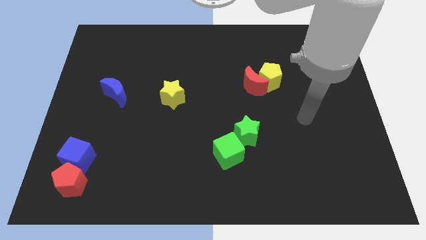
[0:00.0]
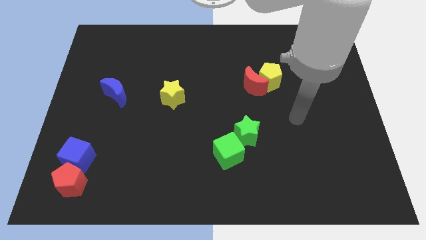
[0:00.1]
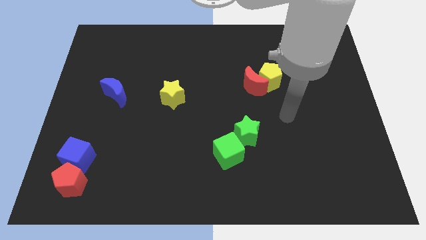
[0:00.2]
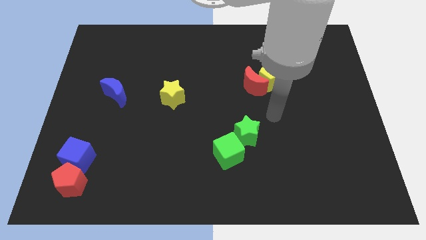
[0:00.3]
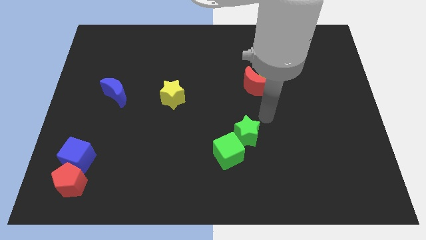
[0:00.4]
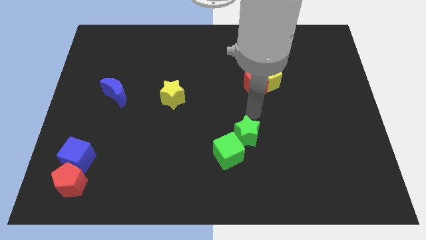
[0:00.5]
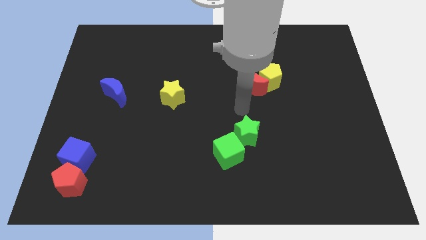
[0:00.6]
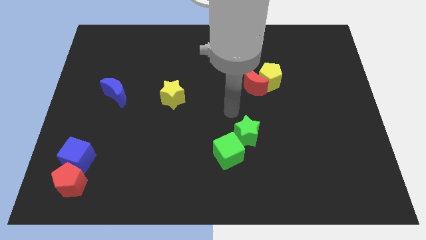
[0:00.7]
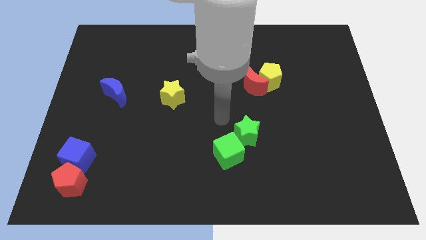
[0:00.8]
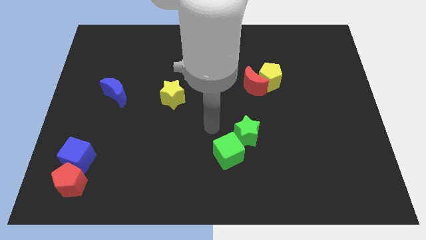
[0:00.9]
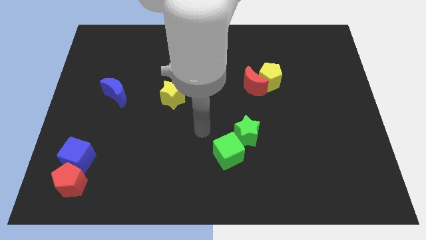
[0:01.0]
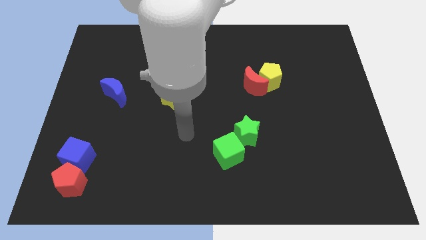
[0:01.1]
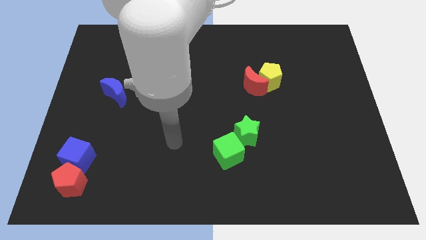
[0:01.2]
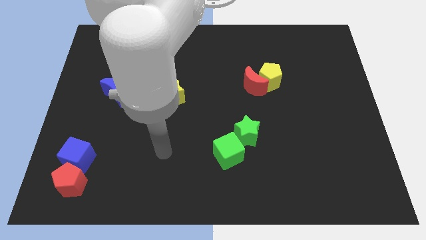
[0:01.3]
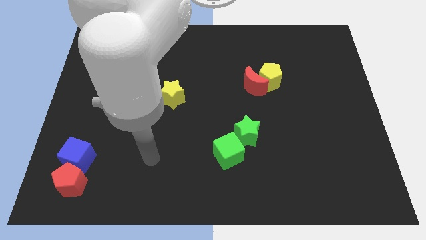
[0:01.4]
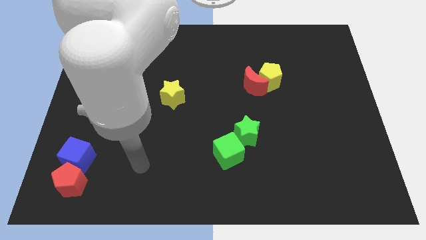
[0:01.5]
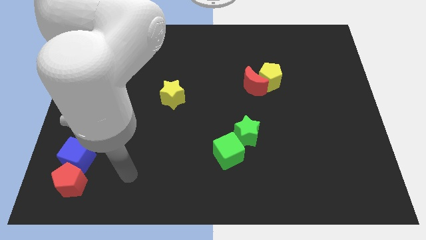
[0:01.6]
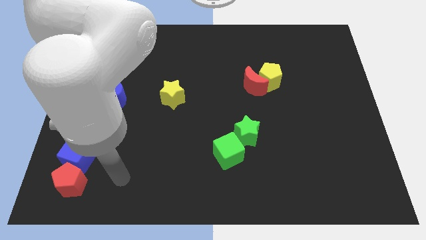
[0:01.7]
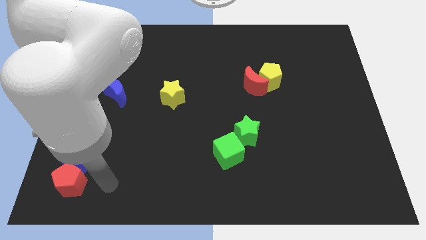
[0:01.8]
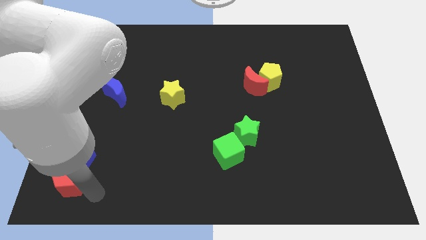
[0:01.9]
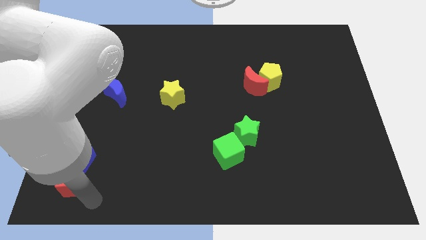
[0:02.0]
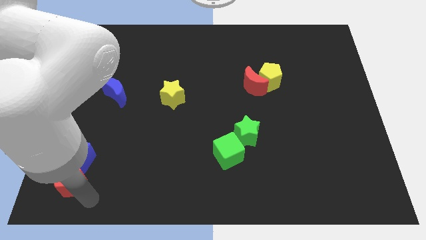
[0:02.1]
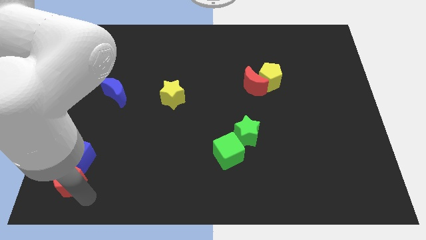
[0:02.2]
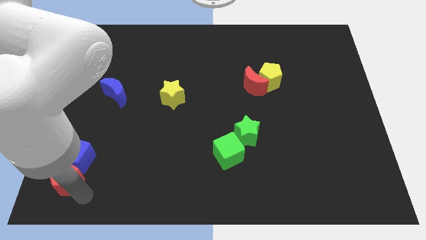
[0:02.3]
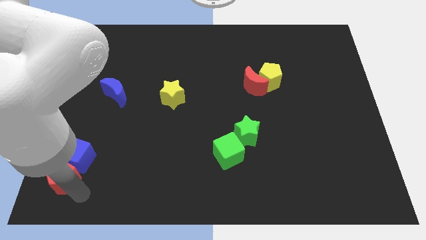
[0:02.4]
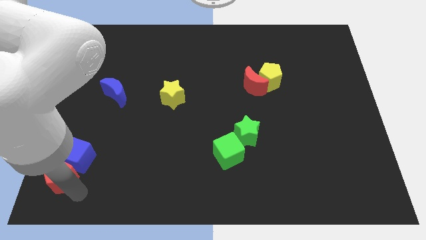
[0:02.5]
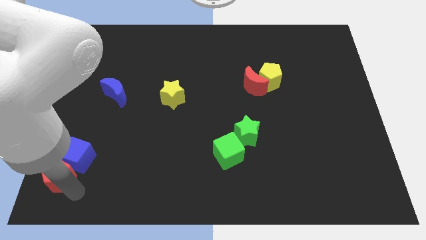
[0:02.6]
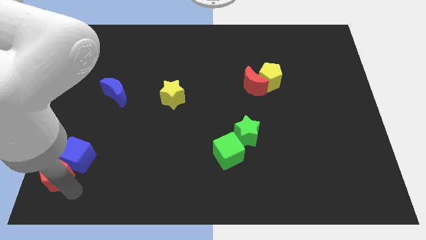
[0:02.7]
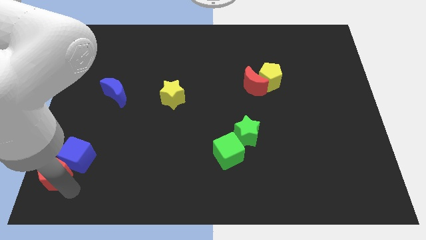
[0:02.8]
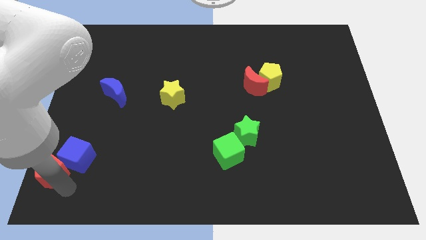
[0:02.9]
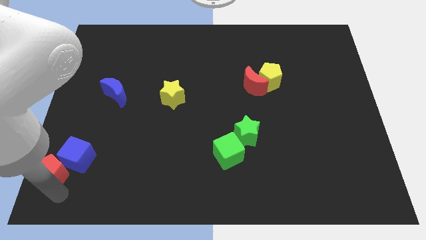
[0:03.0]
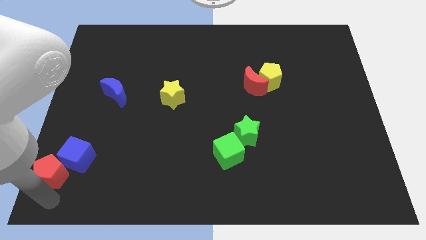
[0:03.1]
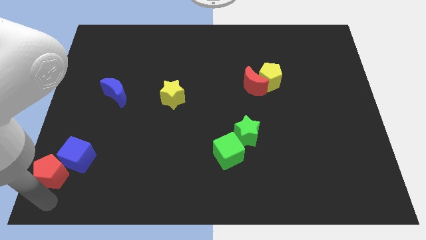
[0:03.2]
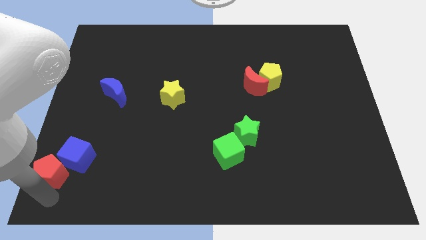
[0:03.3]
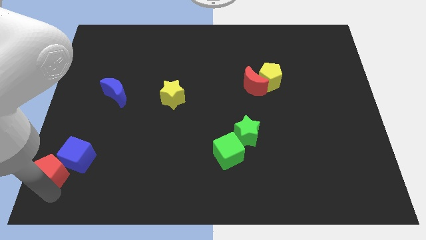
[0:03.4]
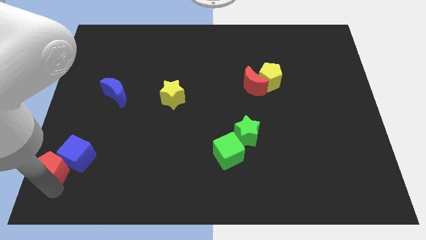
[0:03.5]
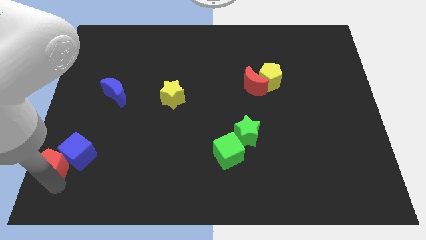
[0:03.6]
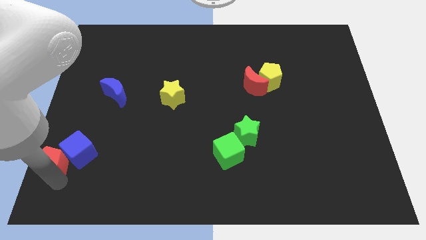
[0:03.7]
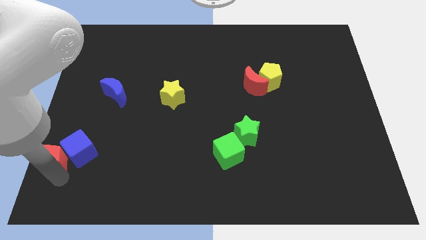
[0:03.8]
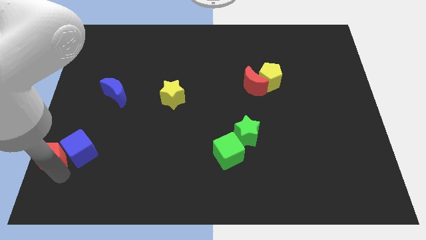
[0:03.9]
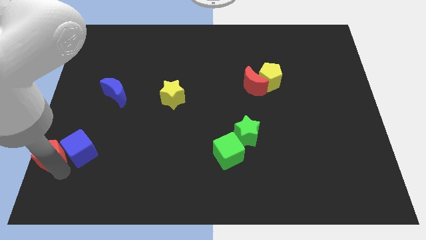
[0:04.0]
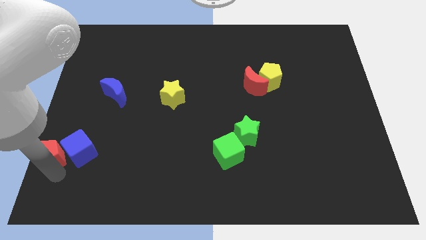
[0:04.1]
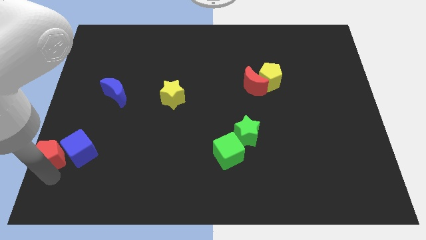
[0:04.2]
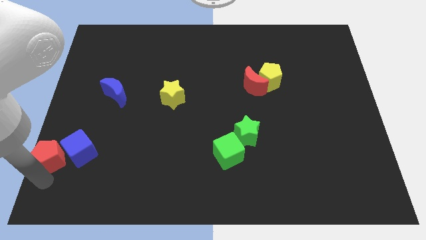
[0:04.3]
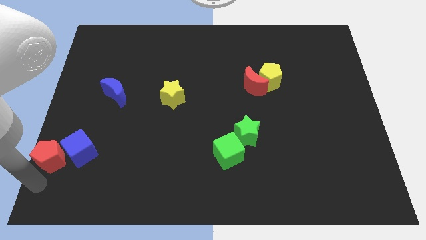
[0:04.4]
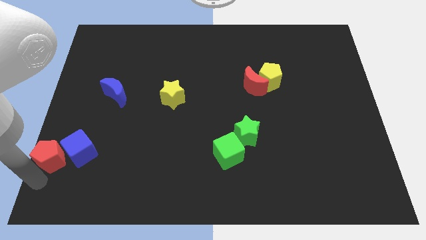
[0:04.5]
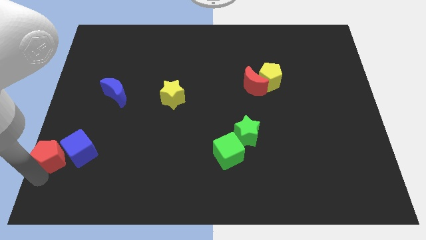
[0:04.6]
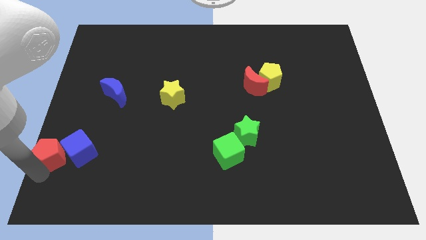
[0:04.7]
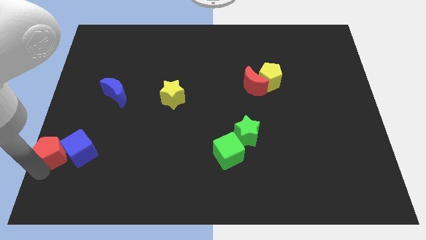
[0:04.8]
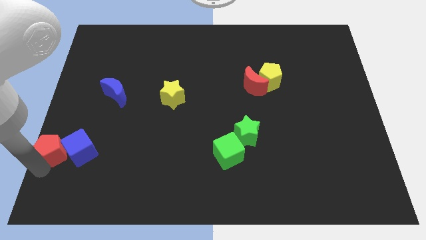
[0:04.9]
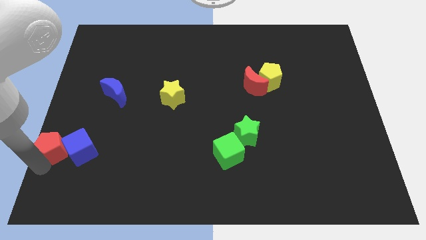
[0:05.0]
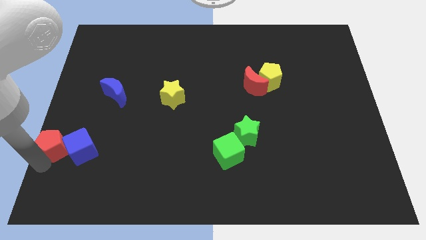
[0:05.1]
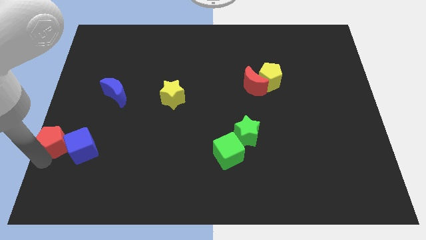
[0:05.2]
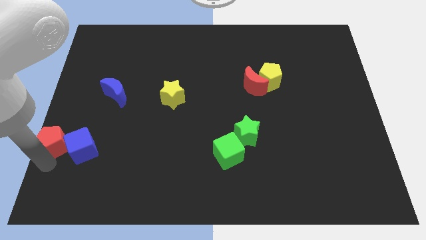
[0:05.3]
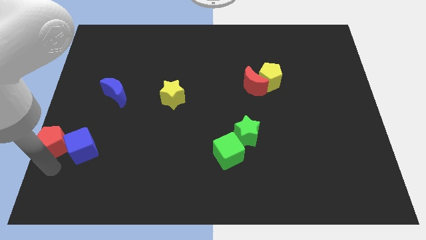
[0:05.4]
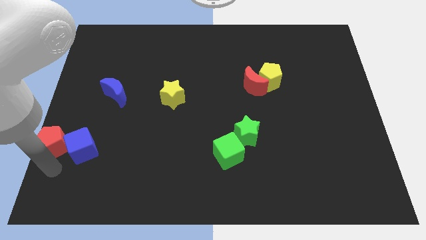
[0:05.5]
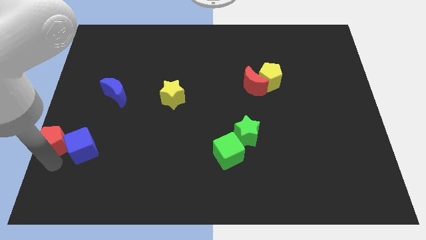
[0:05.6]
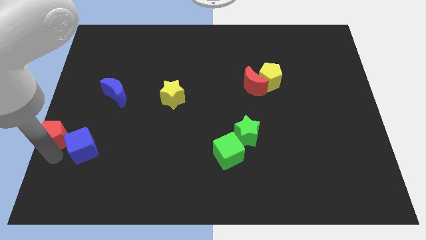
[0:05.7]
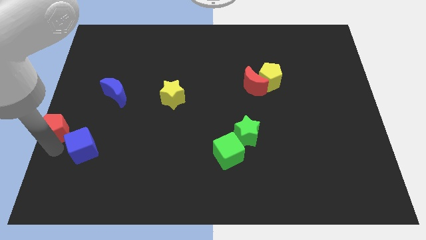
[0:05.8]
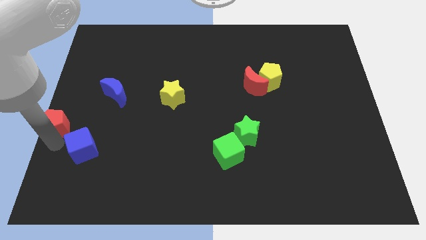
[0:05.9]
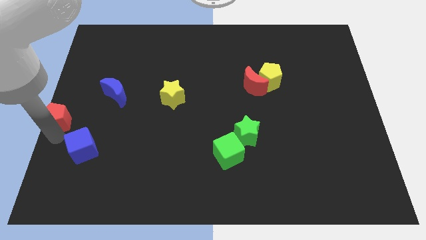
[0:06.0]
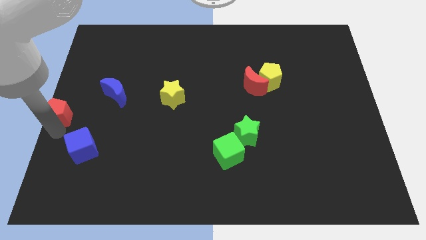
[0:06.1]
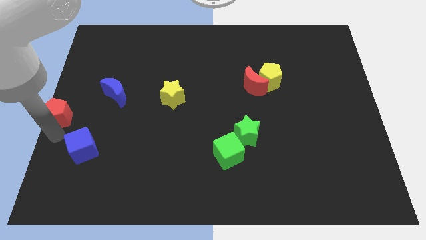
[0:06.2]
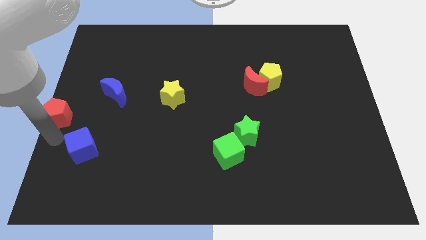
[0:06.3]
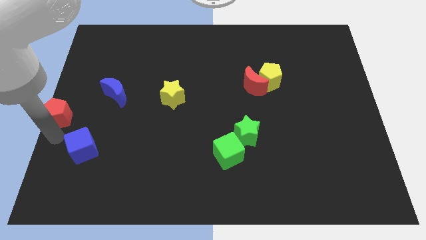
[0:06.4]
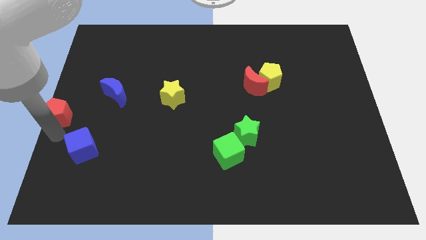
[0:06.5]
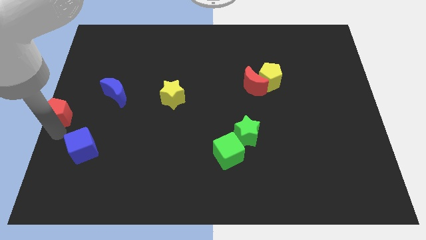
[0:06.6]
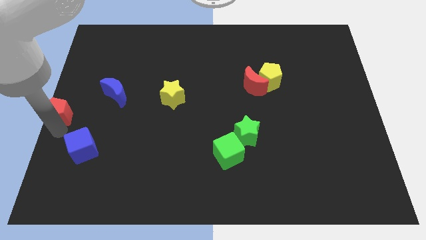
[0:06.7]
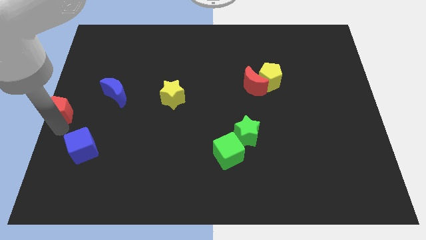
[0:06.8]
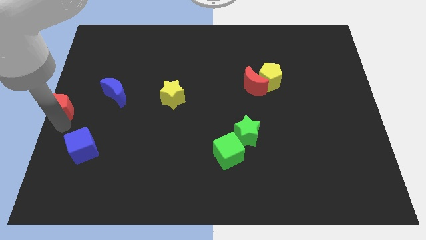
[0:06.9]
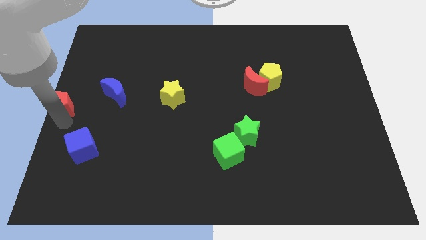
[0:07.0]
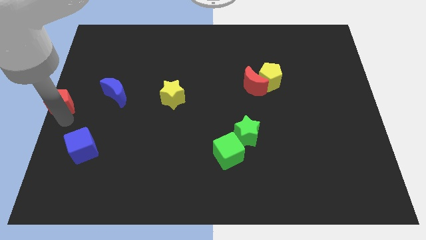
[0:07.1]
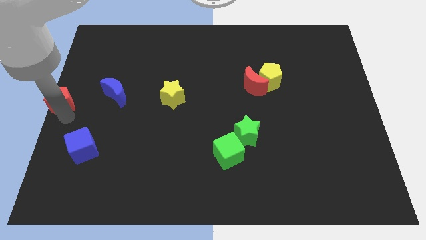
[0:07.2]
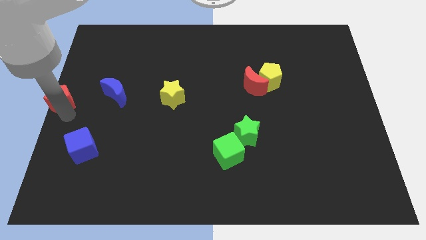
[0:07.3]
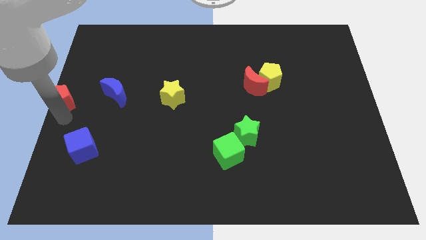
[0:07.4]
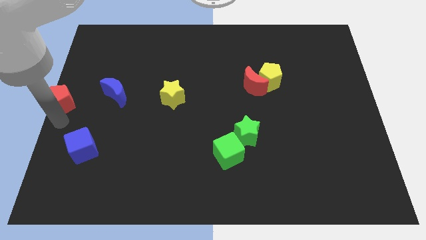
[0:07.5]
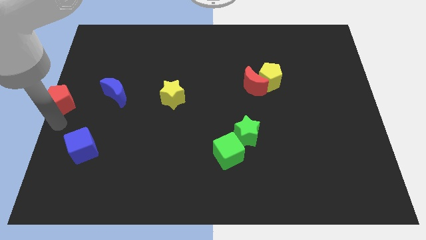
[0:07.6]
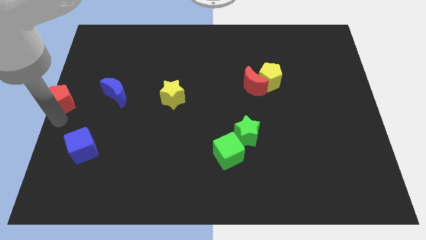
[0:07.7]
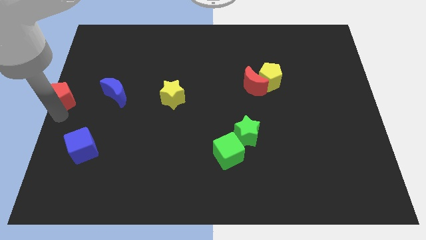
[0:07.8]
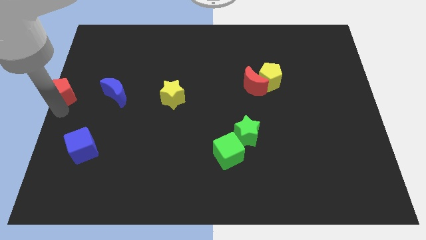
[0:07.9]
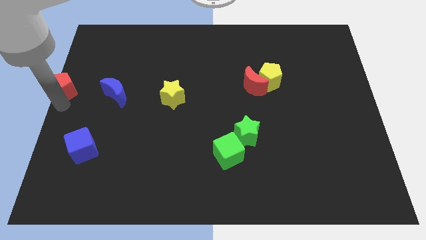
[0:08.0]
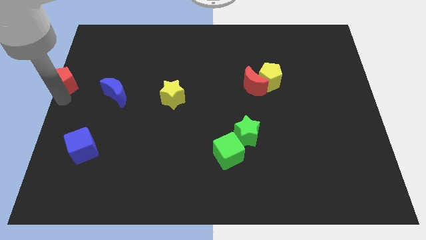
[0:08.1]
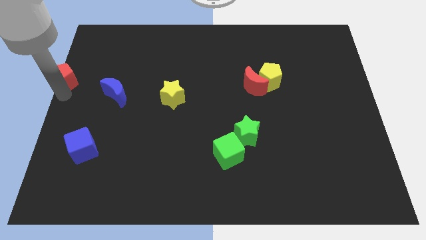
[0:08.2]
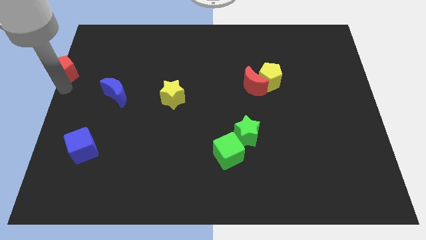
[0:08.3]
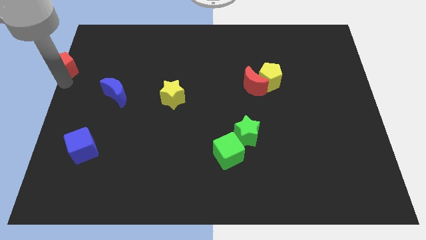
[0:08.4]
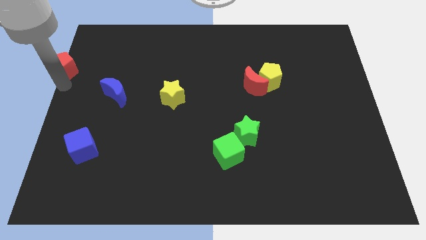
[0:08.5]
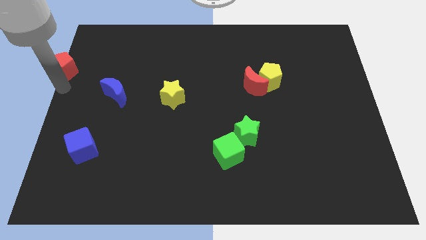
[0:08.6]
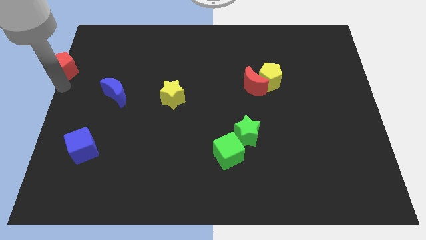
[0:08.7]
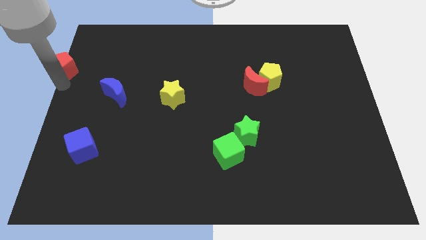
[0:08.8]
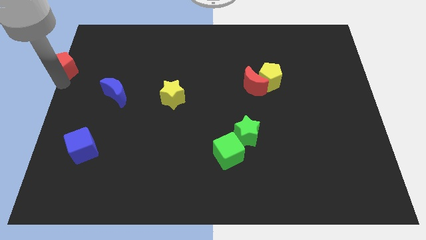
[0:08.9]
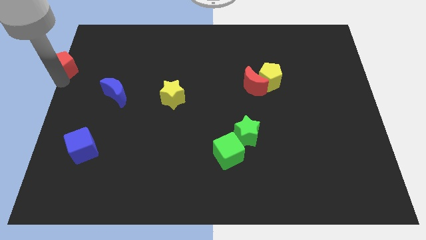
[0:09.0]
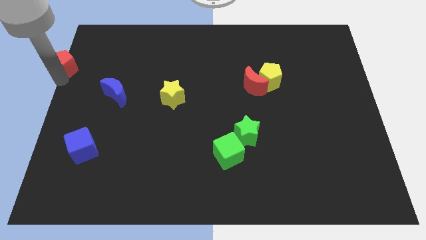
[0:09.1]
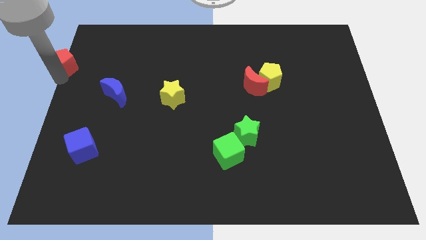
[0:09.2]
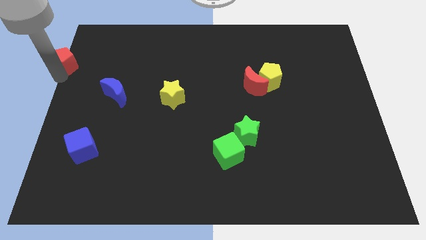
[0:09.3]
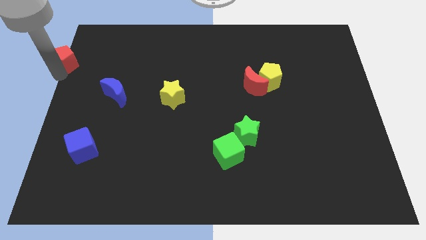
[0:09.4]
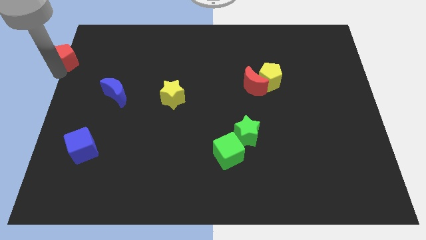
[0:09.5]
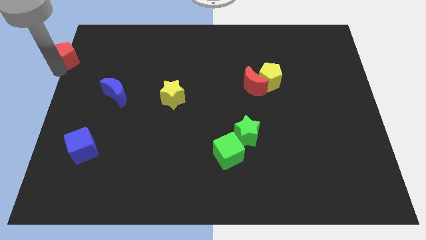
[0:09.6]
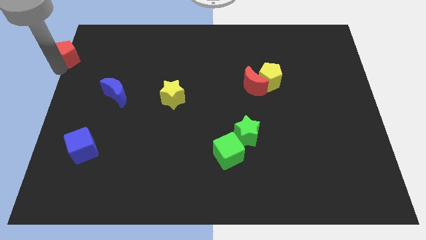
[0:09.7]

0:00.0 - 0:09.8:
move the red pentagon to the top left of the board
